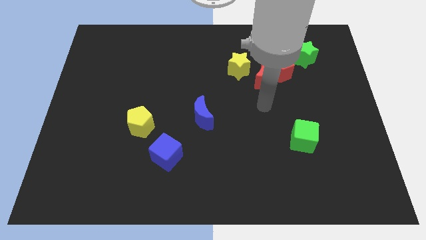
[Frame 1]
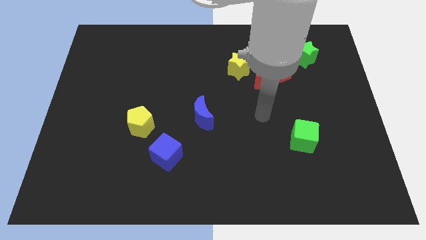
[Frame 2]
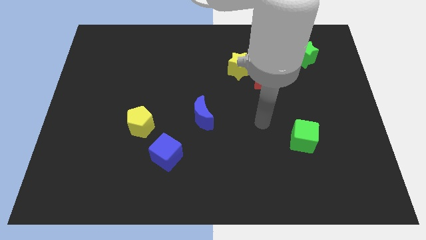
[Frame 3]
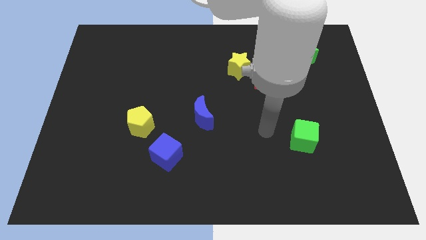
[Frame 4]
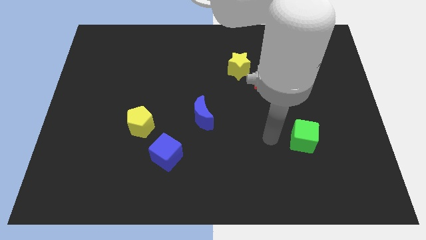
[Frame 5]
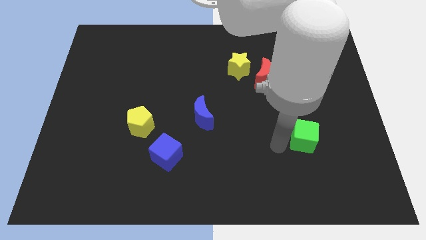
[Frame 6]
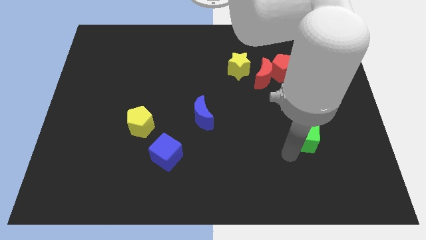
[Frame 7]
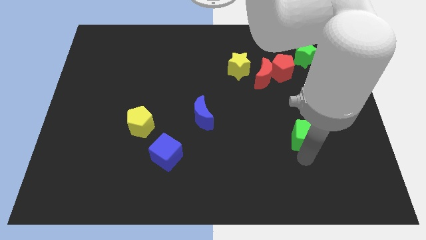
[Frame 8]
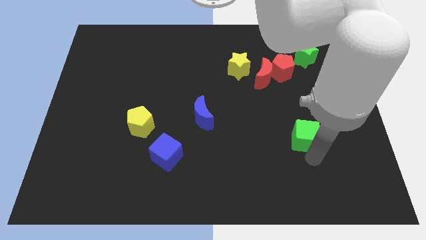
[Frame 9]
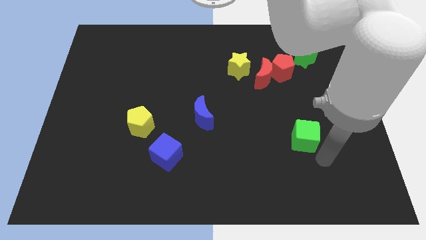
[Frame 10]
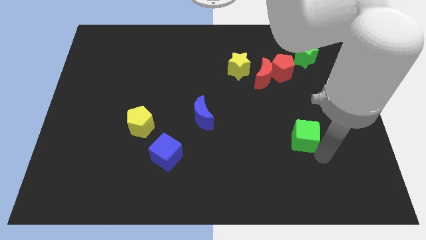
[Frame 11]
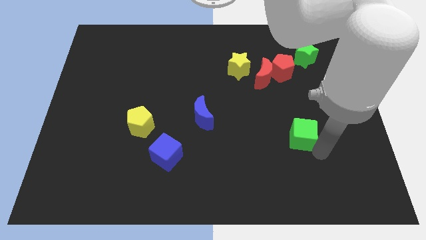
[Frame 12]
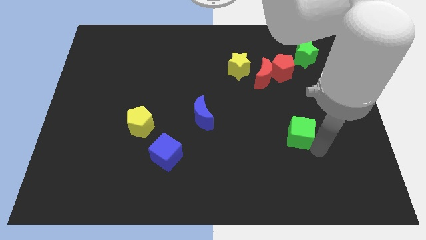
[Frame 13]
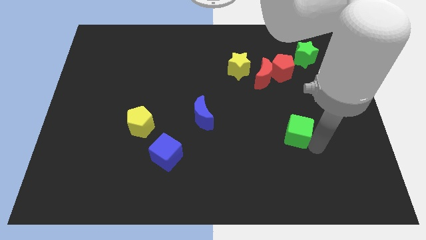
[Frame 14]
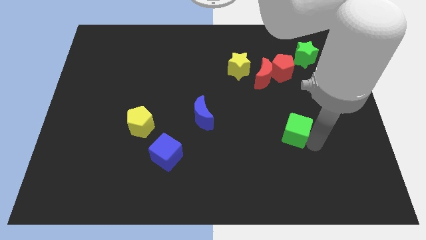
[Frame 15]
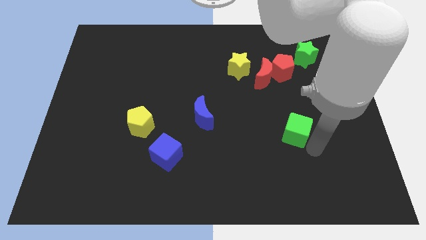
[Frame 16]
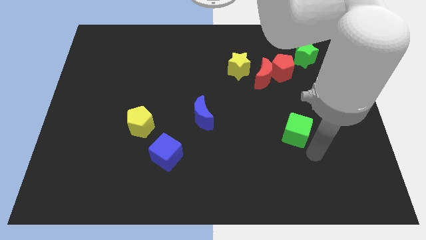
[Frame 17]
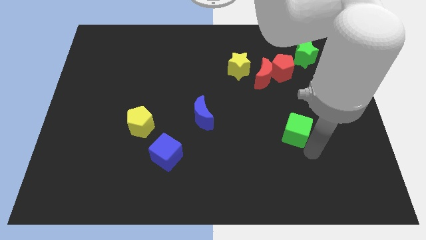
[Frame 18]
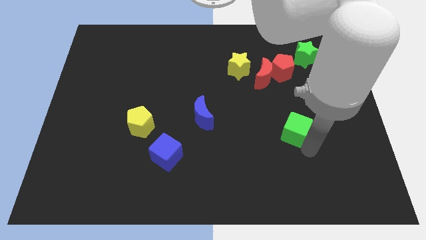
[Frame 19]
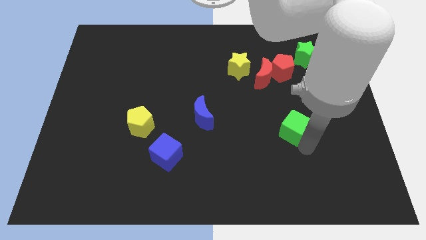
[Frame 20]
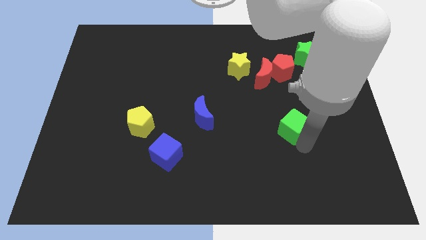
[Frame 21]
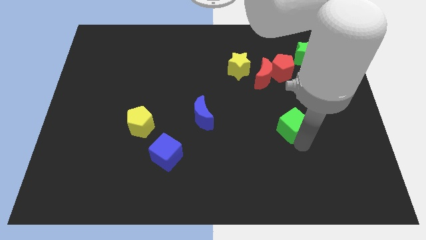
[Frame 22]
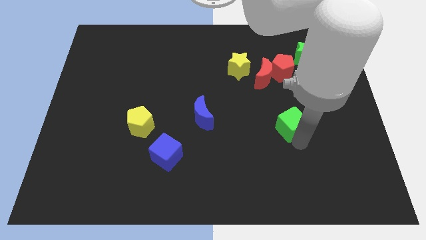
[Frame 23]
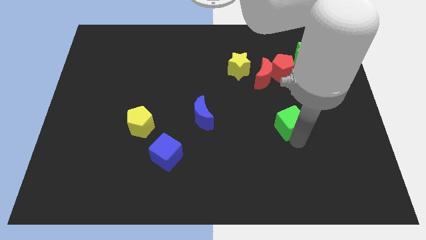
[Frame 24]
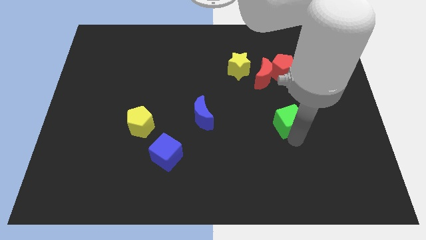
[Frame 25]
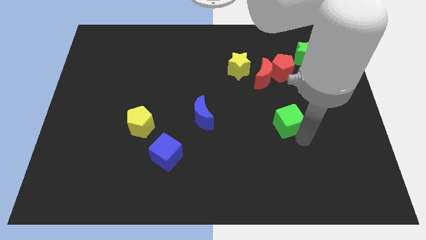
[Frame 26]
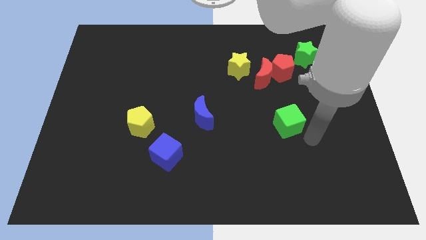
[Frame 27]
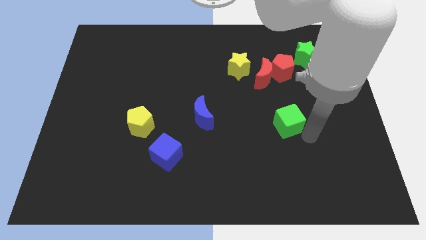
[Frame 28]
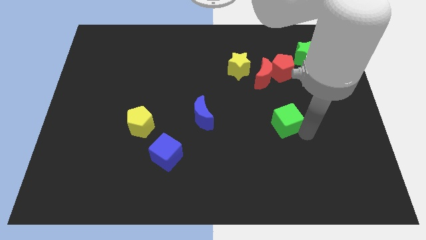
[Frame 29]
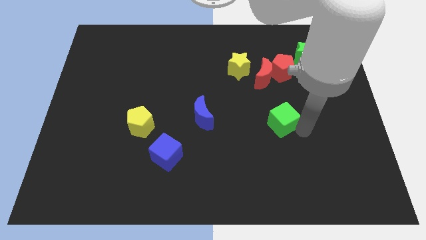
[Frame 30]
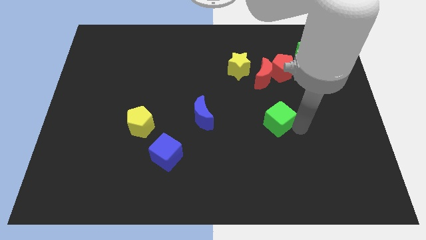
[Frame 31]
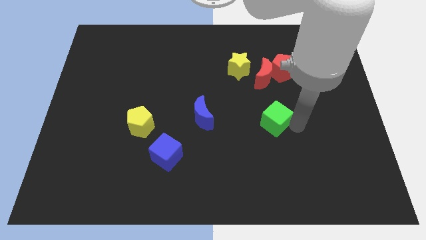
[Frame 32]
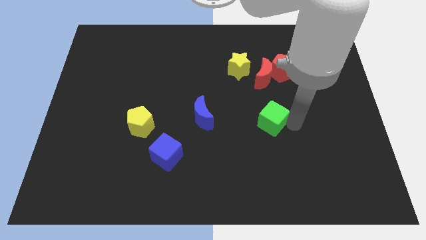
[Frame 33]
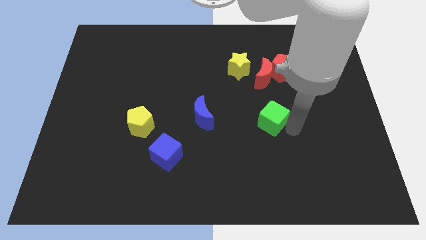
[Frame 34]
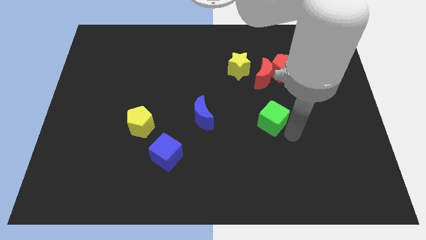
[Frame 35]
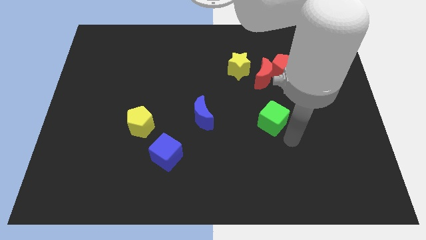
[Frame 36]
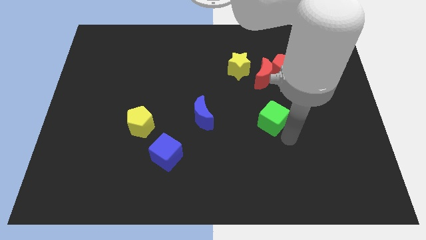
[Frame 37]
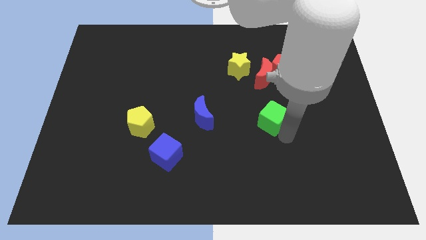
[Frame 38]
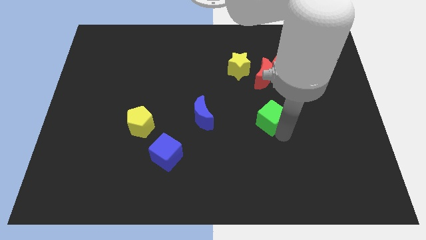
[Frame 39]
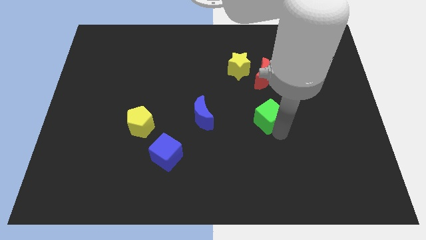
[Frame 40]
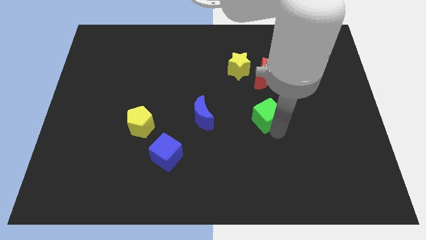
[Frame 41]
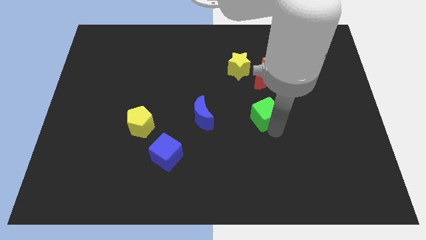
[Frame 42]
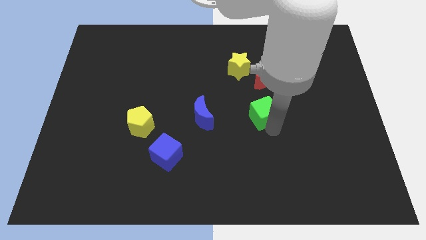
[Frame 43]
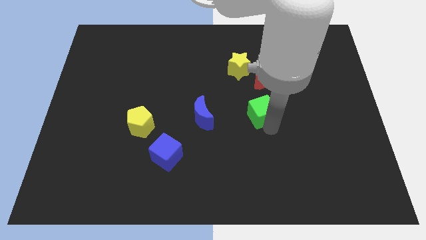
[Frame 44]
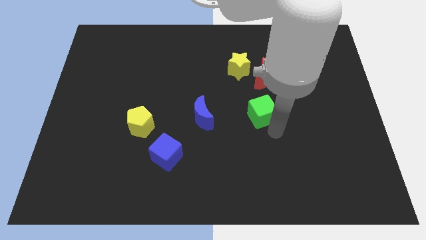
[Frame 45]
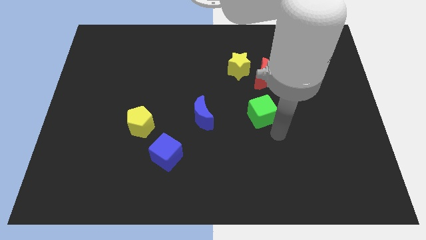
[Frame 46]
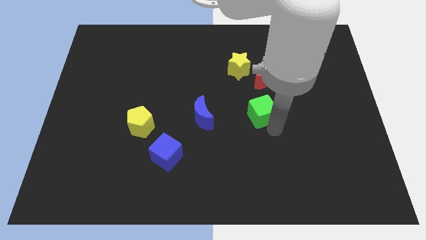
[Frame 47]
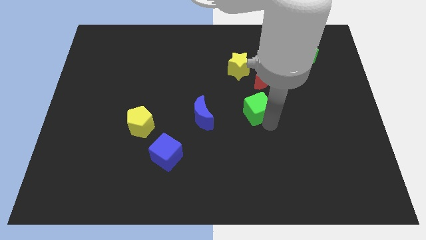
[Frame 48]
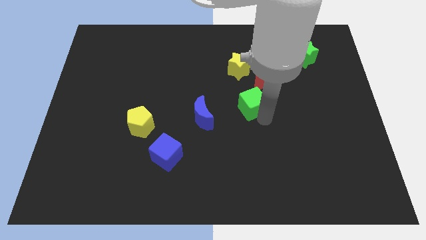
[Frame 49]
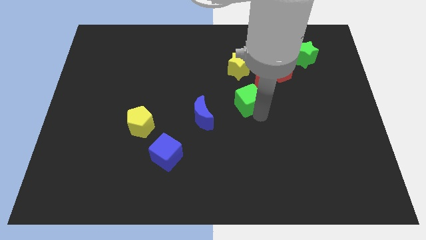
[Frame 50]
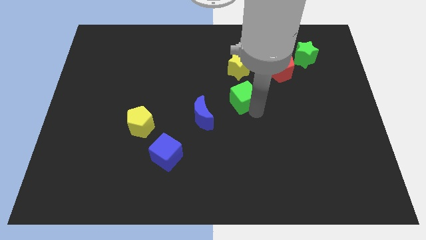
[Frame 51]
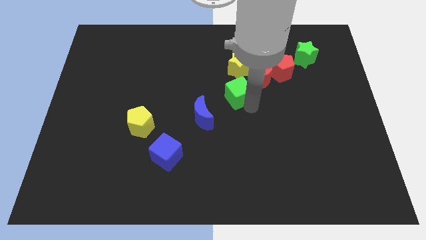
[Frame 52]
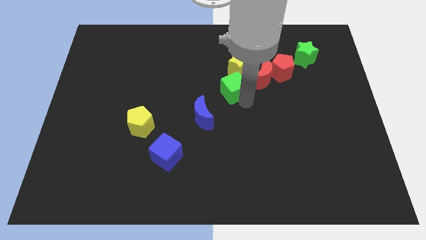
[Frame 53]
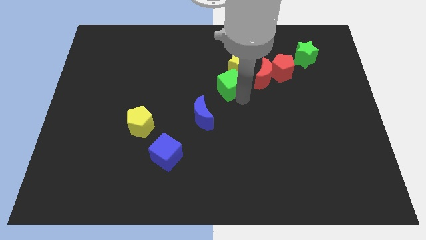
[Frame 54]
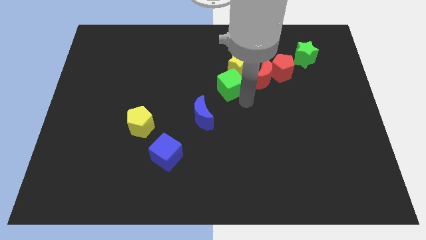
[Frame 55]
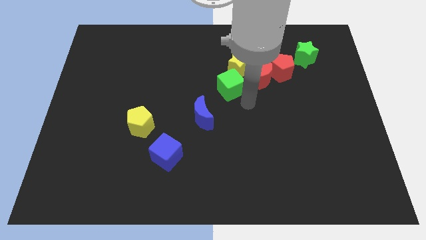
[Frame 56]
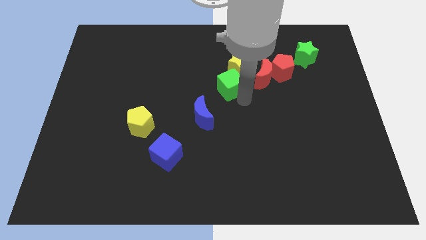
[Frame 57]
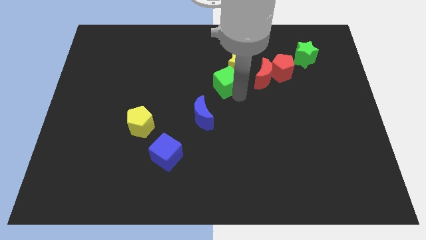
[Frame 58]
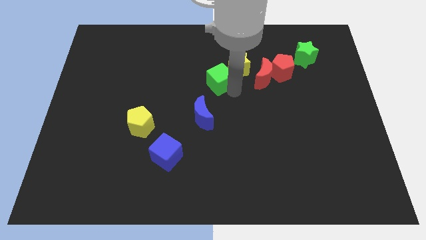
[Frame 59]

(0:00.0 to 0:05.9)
push the green cube just left of the yellow star

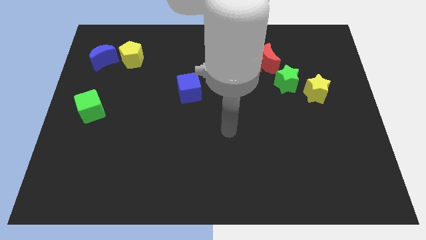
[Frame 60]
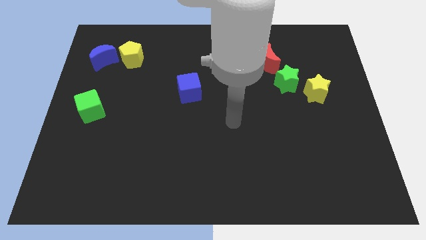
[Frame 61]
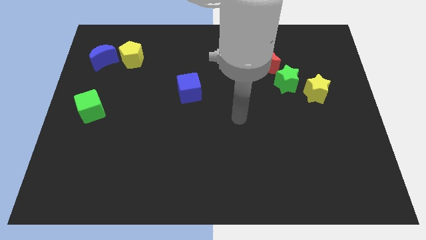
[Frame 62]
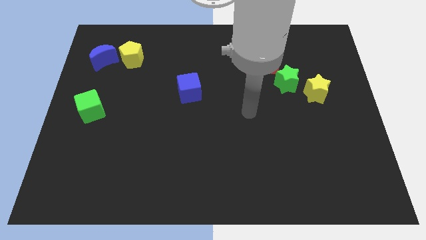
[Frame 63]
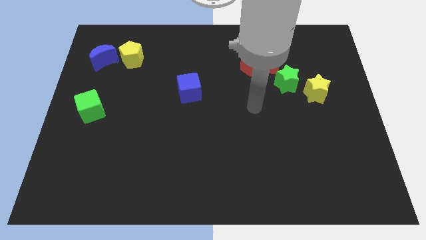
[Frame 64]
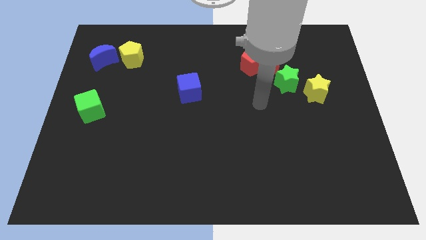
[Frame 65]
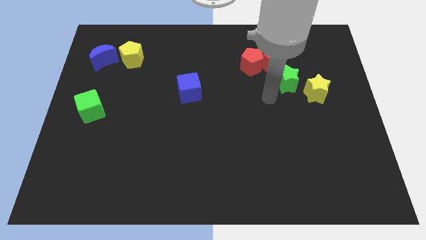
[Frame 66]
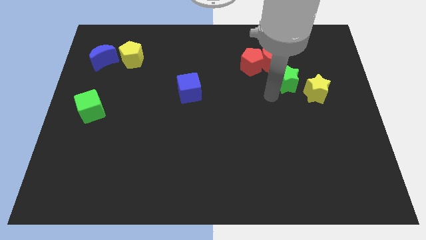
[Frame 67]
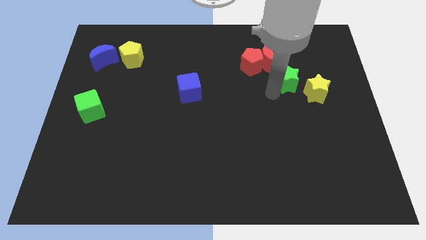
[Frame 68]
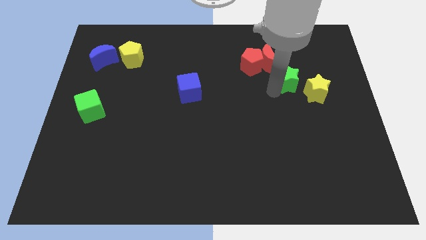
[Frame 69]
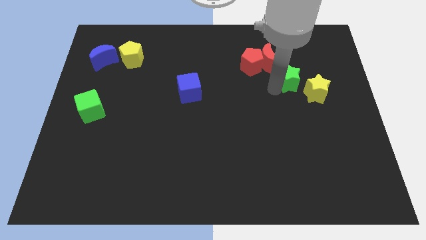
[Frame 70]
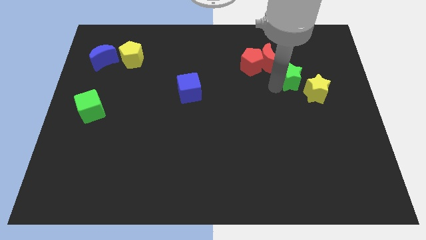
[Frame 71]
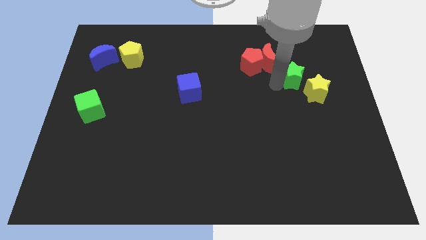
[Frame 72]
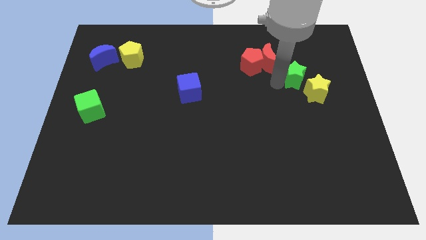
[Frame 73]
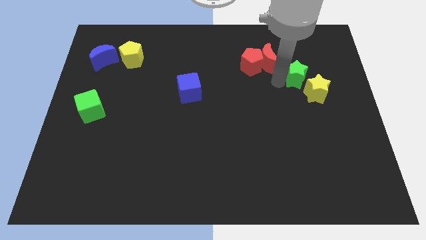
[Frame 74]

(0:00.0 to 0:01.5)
put the green star to the top side of the yellow star

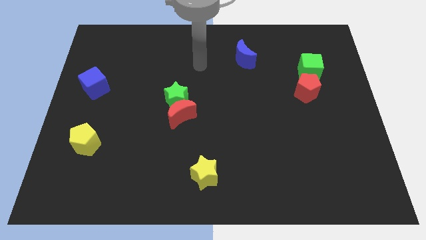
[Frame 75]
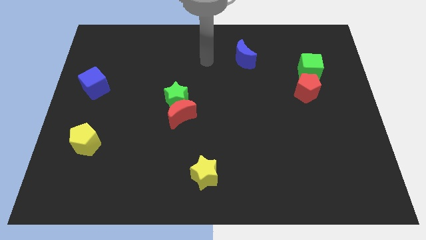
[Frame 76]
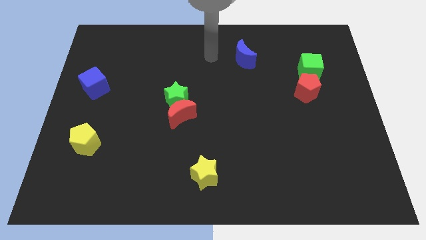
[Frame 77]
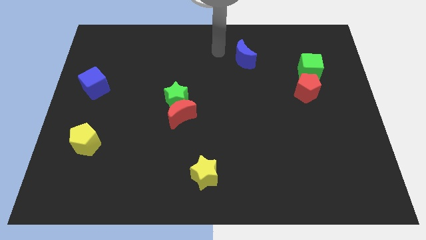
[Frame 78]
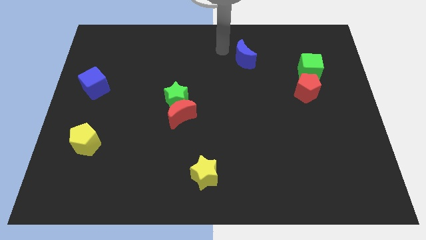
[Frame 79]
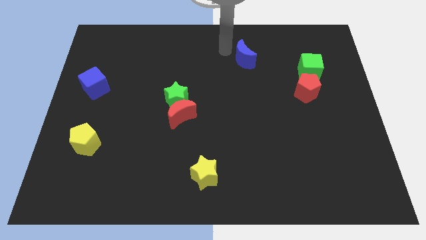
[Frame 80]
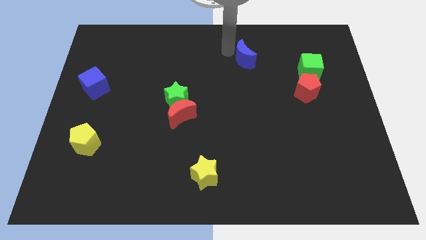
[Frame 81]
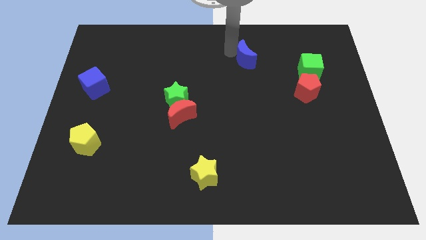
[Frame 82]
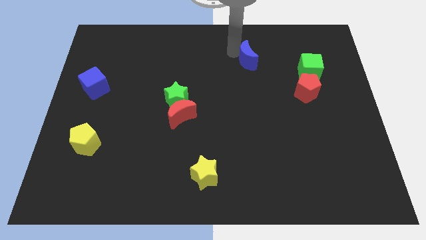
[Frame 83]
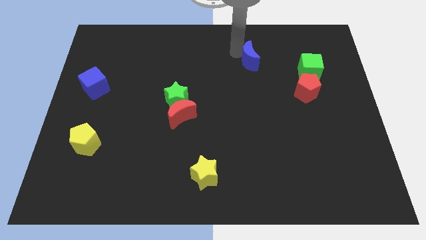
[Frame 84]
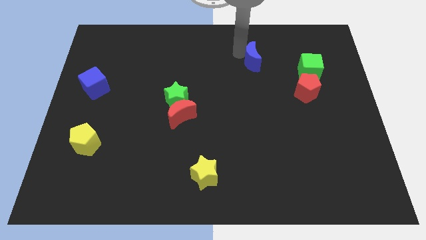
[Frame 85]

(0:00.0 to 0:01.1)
slide the blue moon left of the green cube
